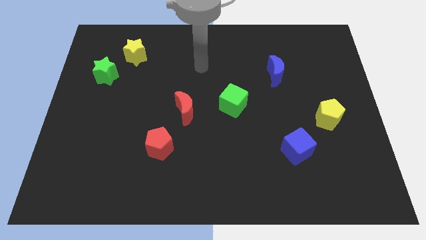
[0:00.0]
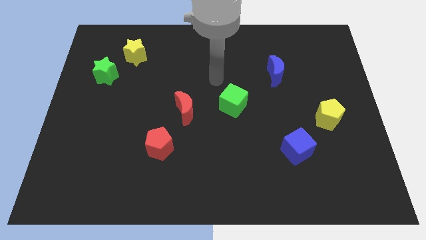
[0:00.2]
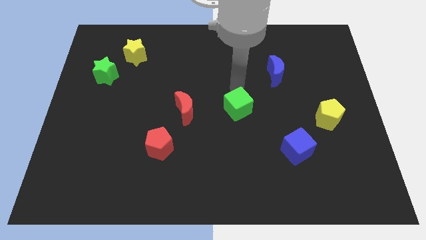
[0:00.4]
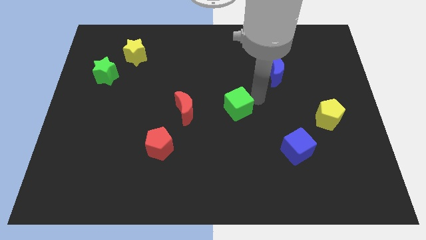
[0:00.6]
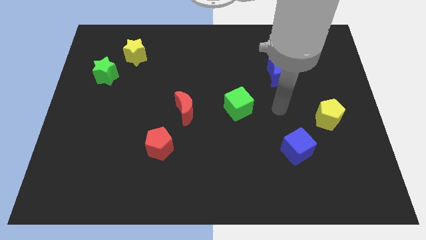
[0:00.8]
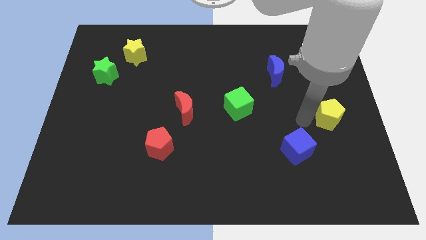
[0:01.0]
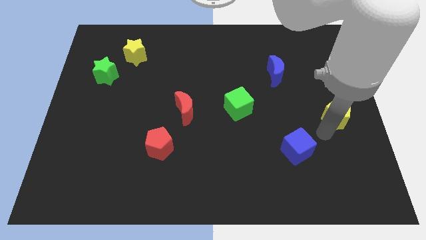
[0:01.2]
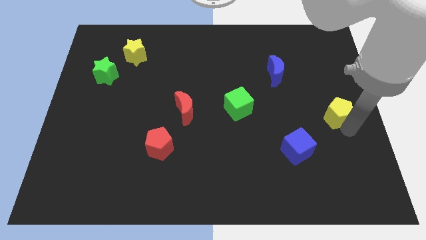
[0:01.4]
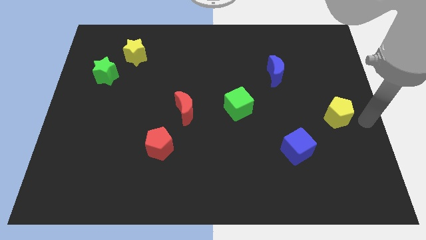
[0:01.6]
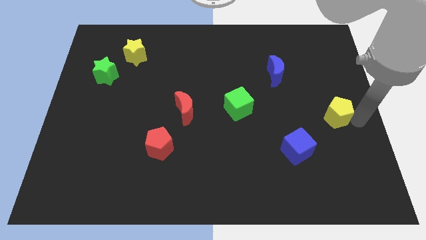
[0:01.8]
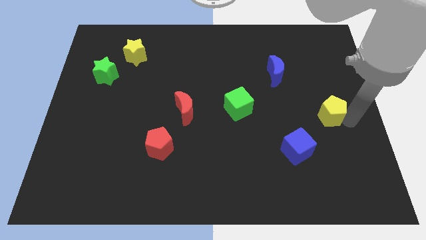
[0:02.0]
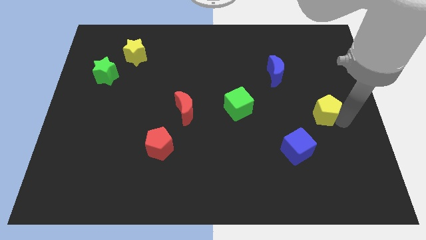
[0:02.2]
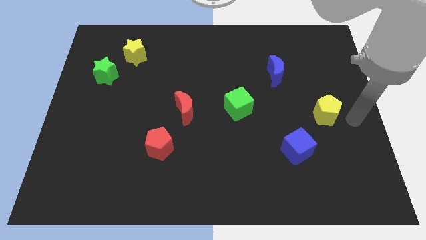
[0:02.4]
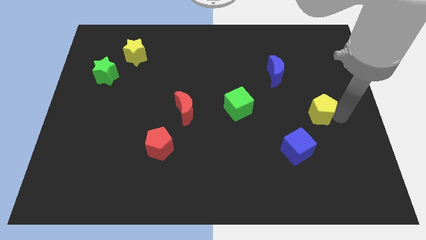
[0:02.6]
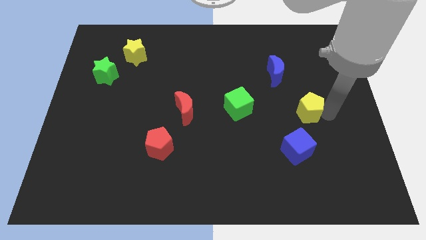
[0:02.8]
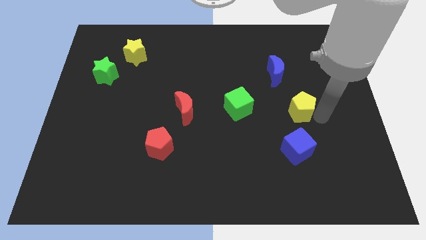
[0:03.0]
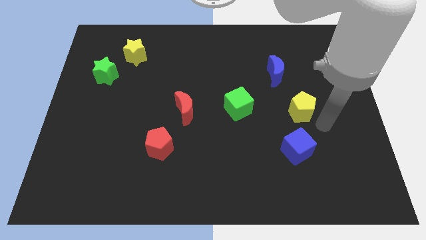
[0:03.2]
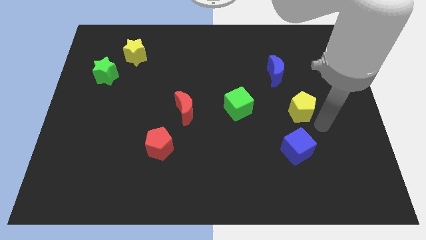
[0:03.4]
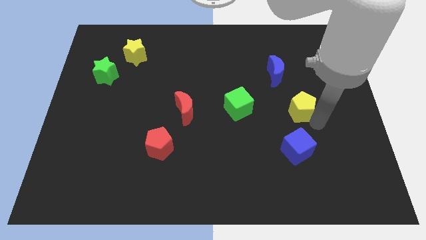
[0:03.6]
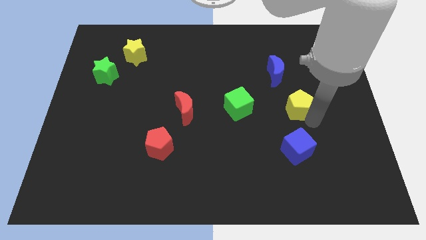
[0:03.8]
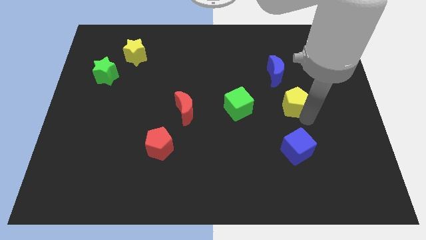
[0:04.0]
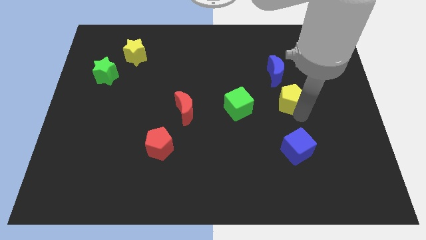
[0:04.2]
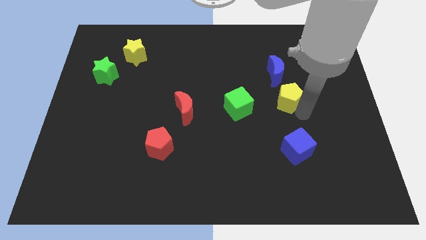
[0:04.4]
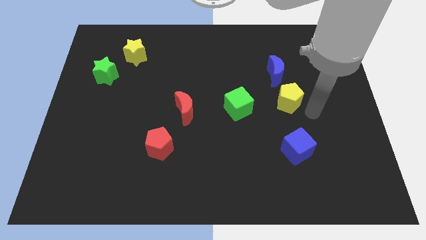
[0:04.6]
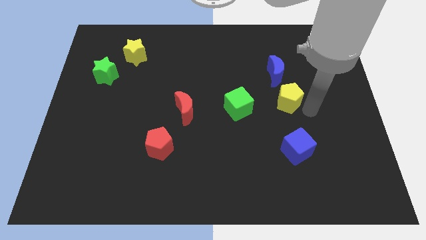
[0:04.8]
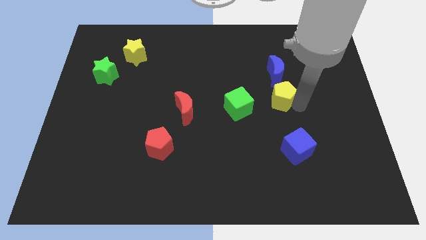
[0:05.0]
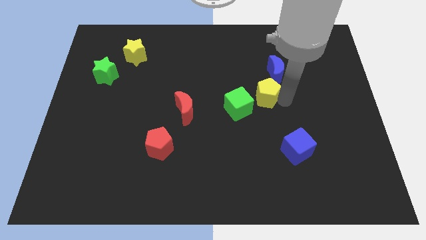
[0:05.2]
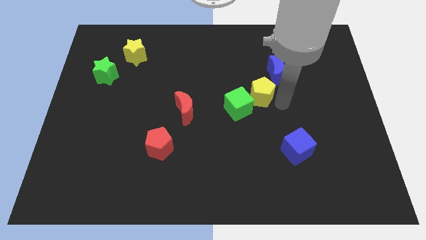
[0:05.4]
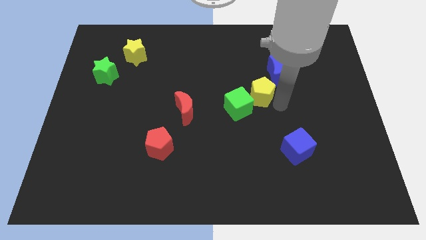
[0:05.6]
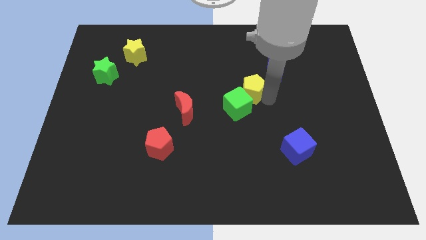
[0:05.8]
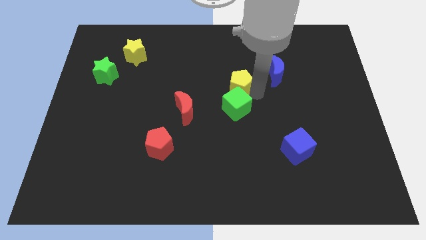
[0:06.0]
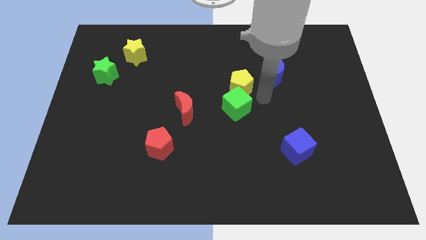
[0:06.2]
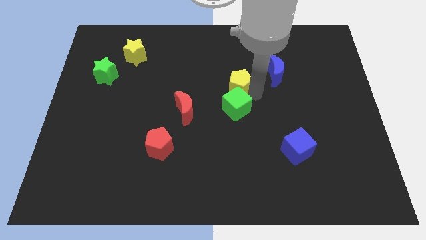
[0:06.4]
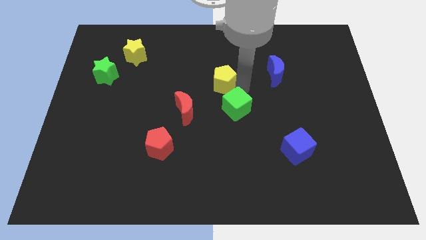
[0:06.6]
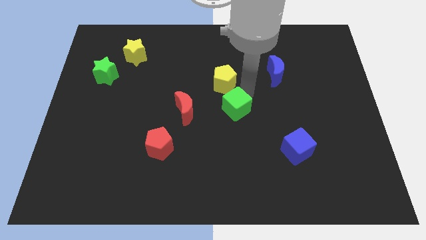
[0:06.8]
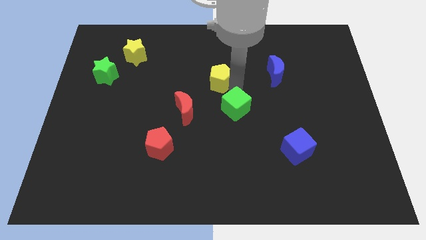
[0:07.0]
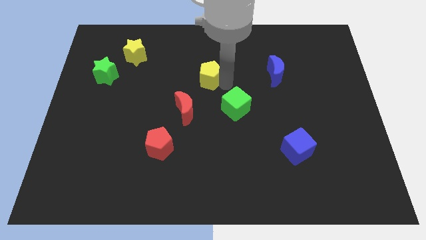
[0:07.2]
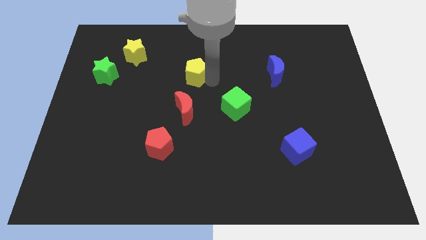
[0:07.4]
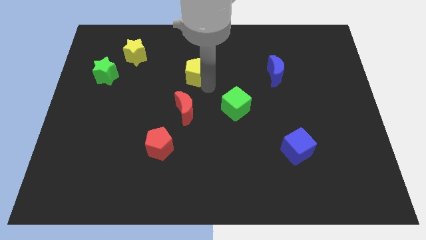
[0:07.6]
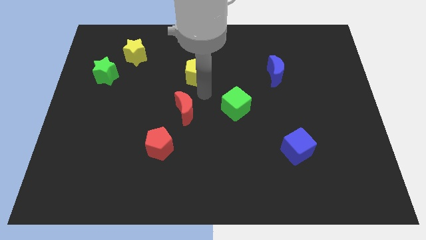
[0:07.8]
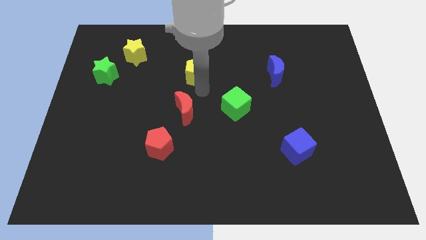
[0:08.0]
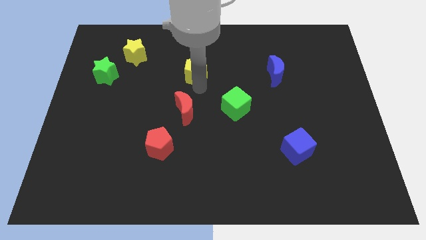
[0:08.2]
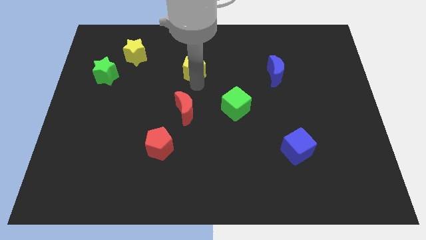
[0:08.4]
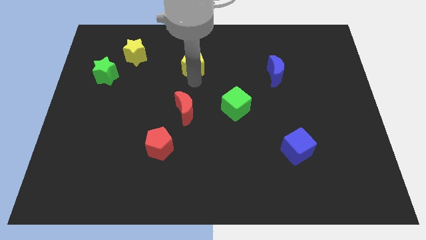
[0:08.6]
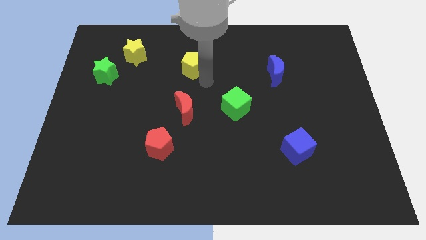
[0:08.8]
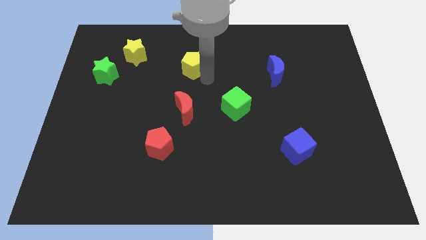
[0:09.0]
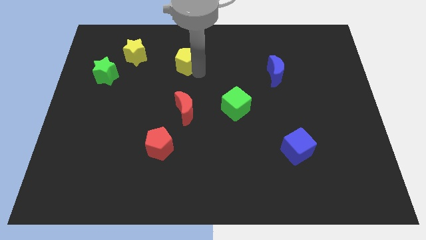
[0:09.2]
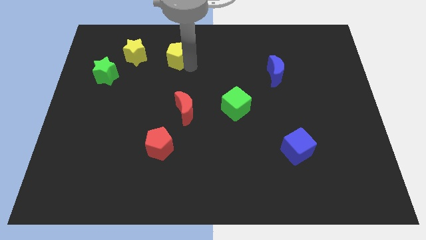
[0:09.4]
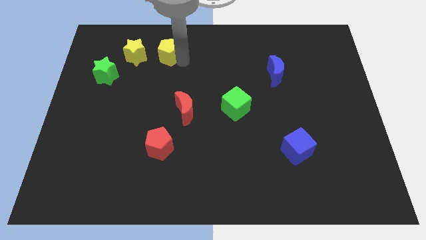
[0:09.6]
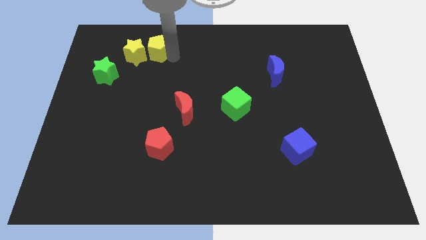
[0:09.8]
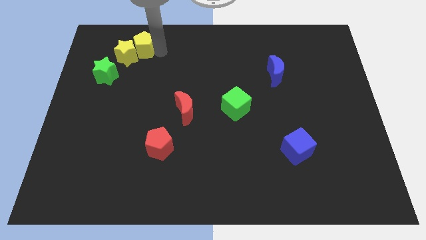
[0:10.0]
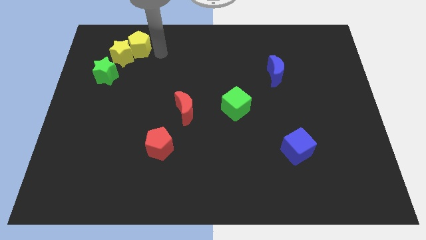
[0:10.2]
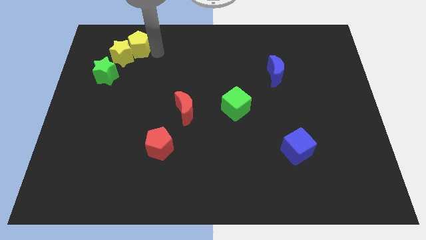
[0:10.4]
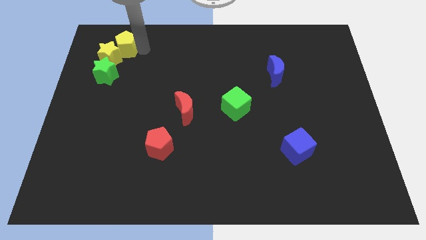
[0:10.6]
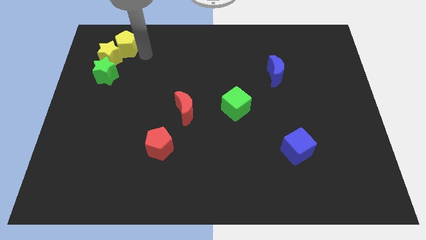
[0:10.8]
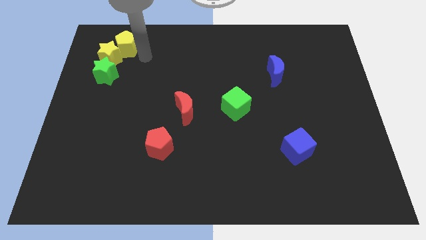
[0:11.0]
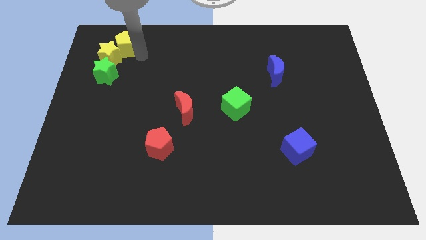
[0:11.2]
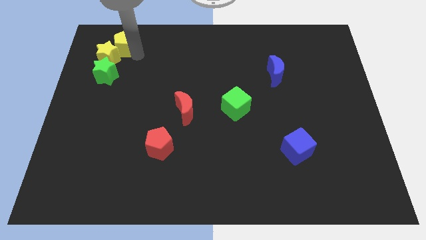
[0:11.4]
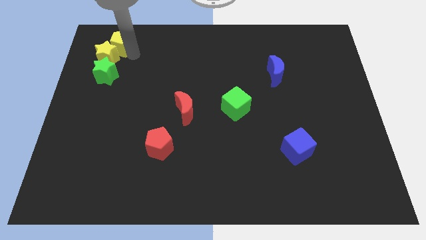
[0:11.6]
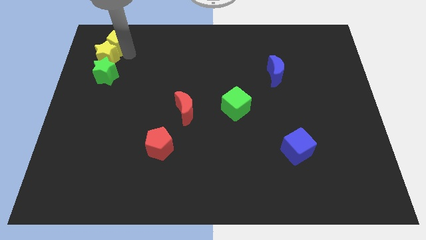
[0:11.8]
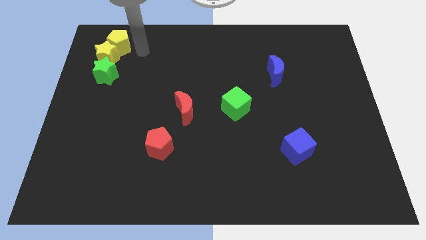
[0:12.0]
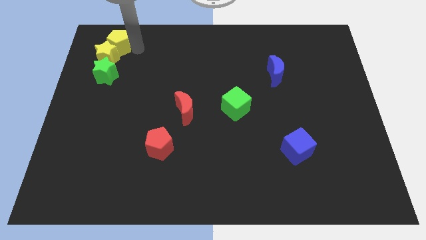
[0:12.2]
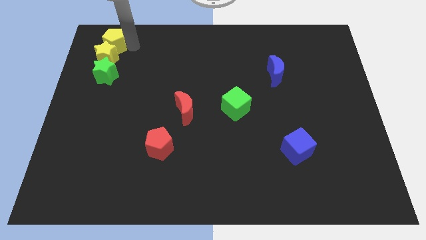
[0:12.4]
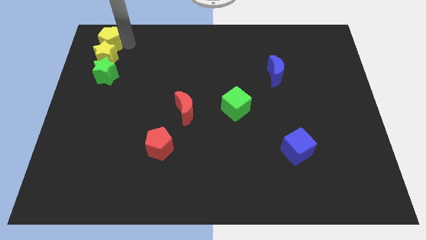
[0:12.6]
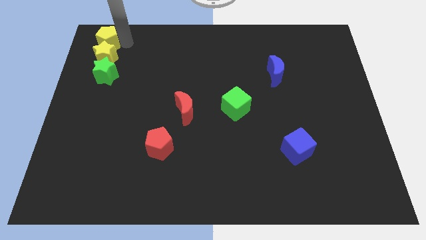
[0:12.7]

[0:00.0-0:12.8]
put the yellow pentagon to the top left of the board
